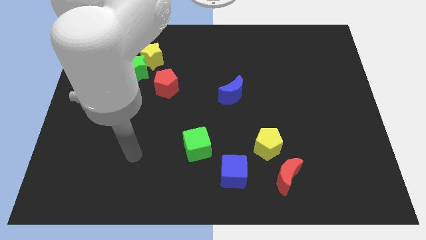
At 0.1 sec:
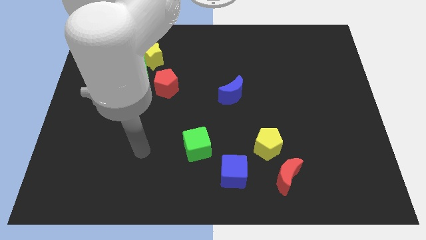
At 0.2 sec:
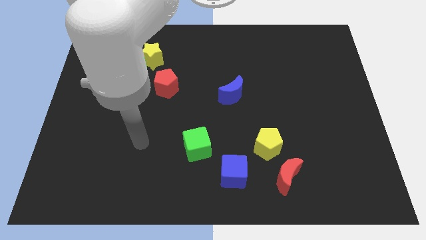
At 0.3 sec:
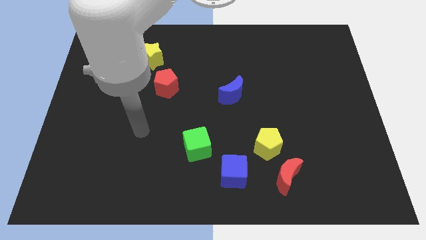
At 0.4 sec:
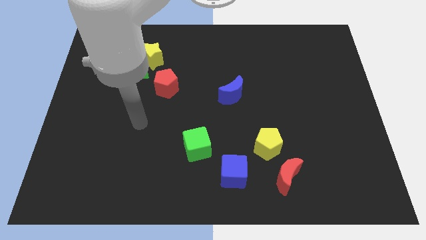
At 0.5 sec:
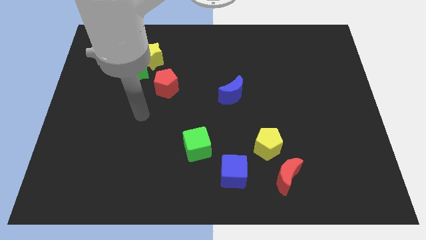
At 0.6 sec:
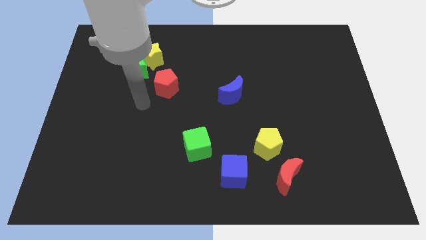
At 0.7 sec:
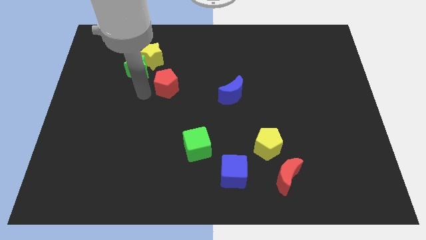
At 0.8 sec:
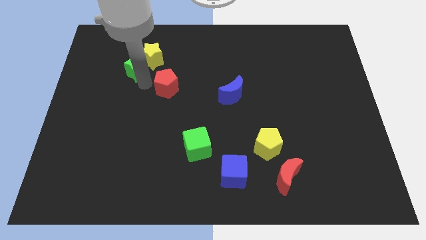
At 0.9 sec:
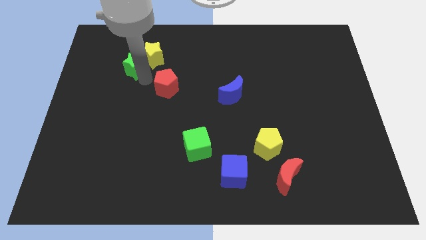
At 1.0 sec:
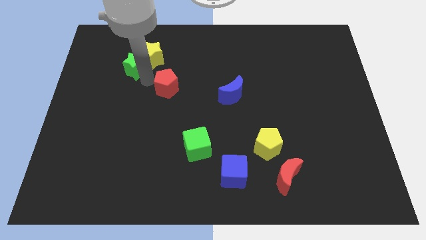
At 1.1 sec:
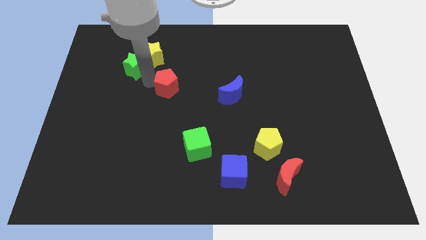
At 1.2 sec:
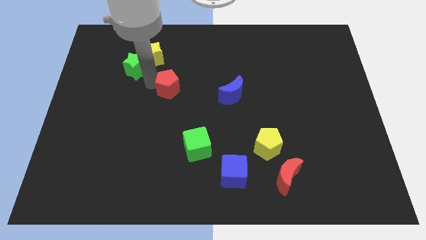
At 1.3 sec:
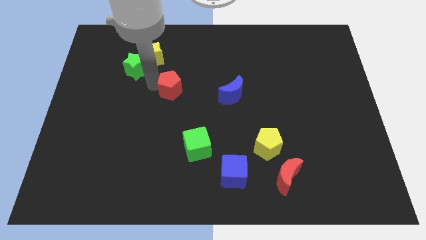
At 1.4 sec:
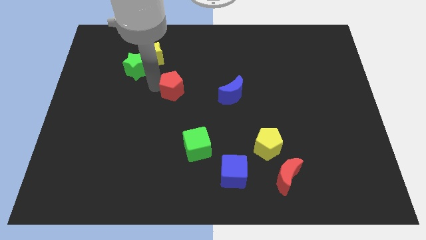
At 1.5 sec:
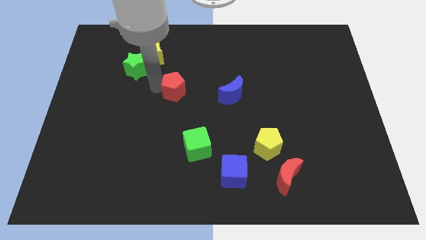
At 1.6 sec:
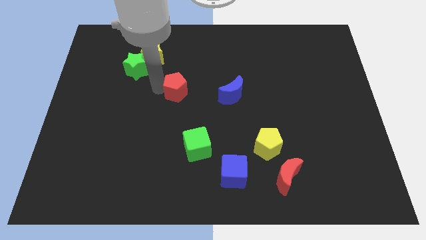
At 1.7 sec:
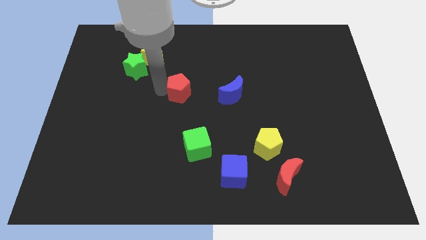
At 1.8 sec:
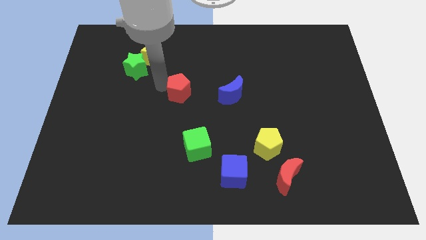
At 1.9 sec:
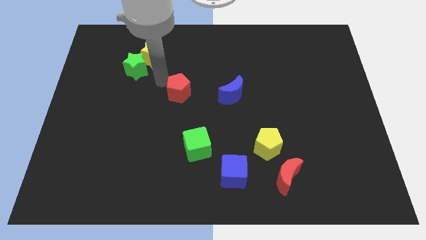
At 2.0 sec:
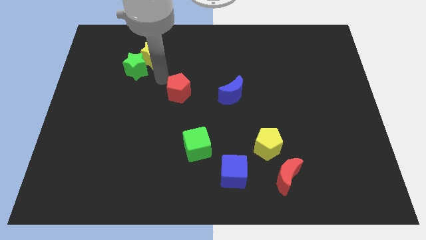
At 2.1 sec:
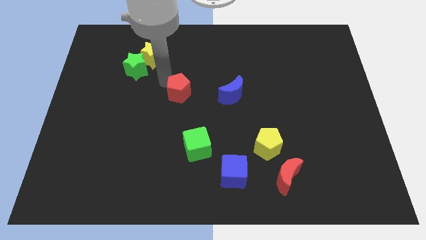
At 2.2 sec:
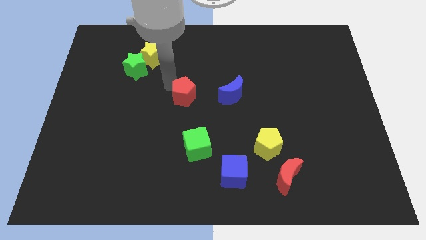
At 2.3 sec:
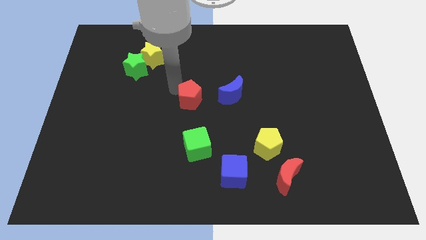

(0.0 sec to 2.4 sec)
slightly push the red pentagon down and then right

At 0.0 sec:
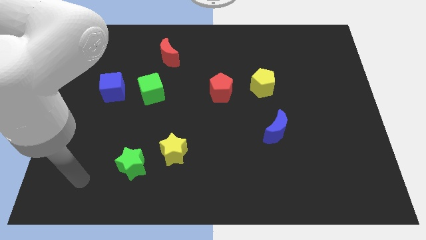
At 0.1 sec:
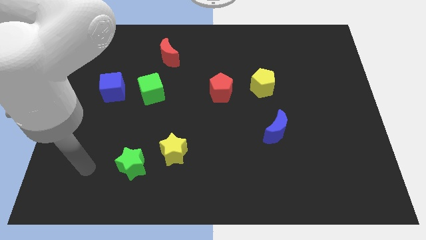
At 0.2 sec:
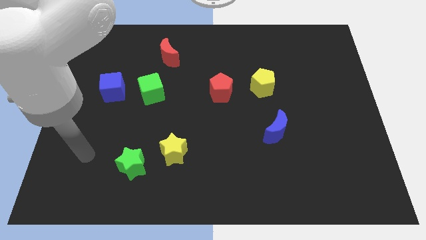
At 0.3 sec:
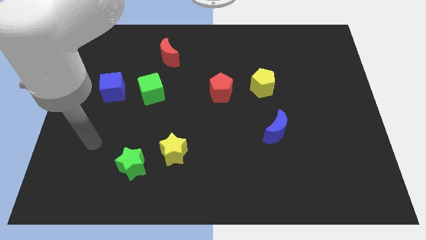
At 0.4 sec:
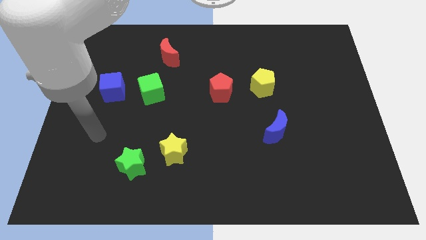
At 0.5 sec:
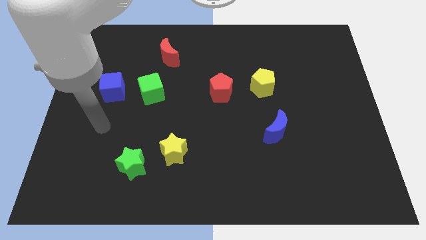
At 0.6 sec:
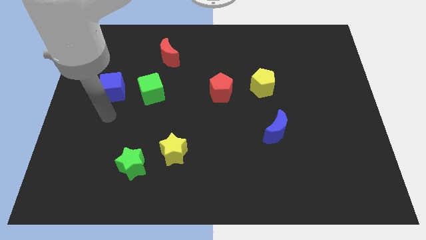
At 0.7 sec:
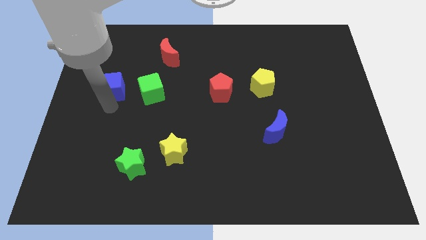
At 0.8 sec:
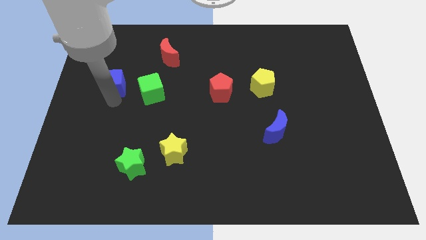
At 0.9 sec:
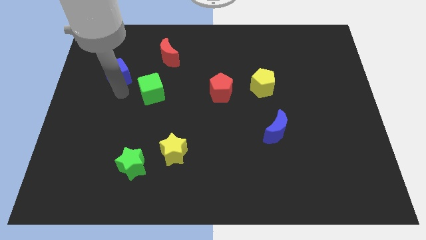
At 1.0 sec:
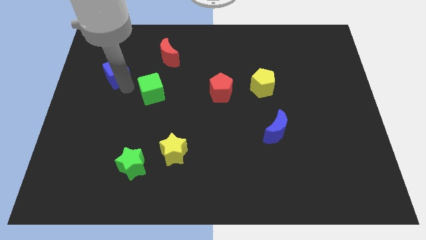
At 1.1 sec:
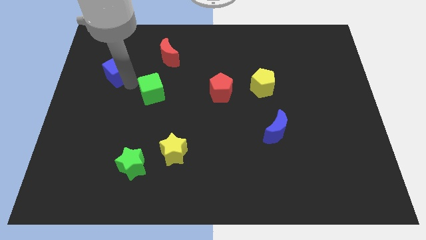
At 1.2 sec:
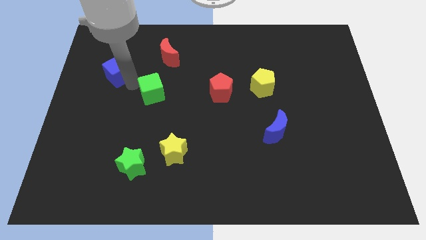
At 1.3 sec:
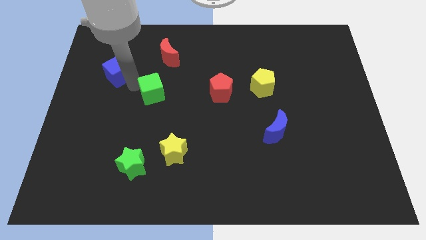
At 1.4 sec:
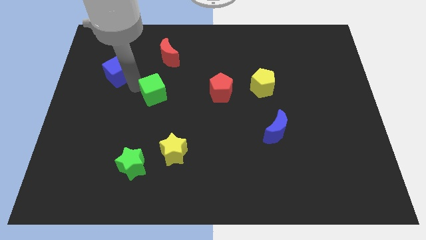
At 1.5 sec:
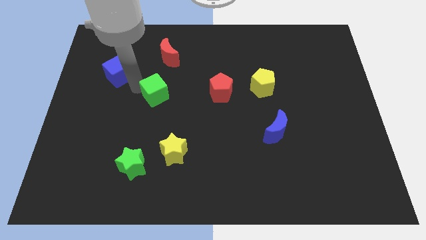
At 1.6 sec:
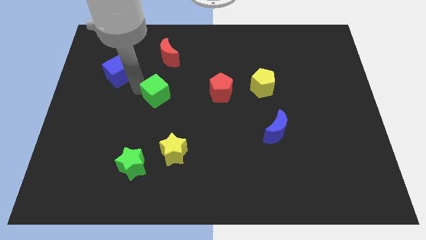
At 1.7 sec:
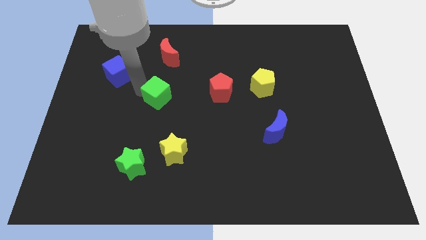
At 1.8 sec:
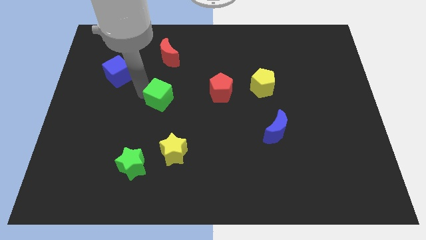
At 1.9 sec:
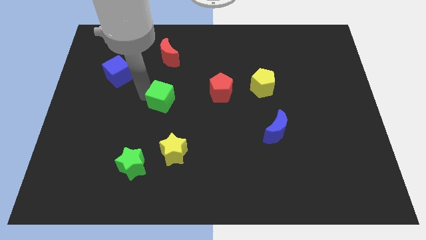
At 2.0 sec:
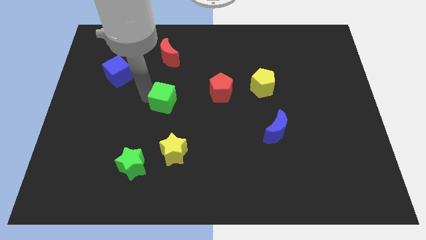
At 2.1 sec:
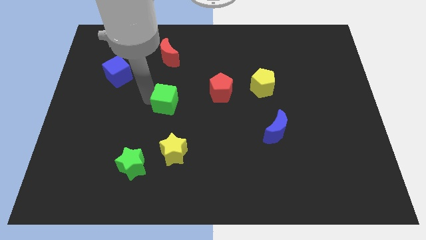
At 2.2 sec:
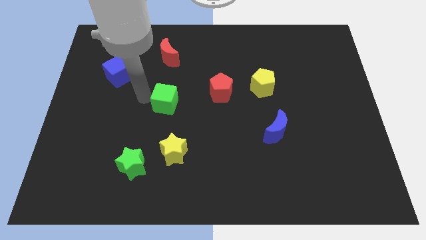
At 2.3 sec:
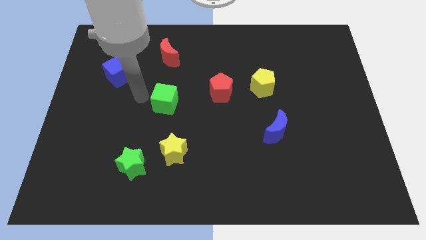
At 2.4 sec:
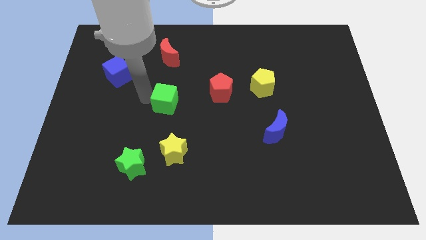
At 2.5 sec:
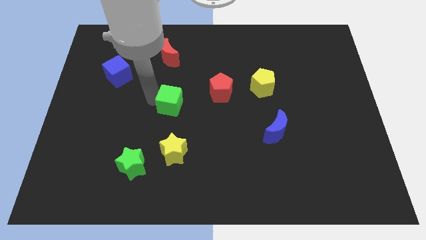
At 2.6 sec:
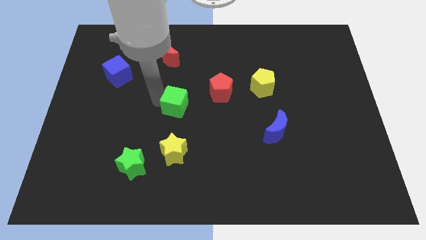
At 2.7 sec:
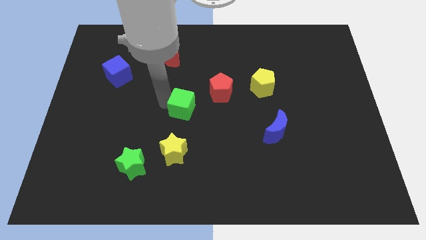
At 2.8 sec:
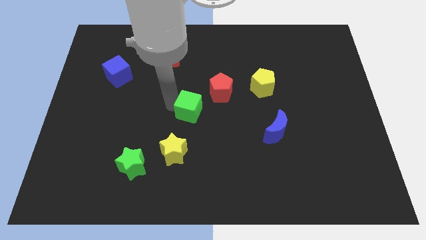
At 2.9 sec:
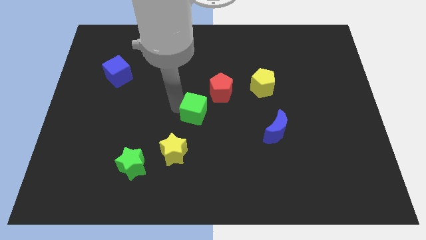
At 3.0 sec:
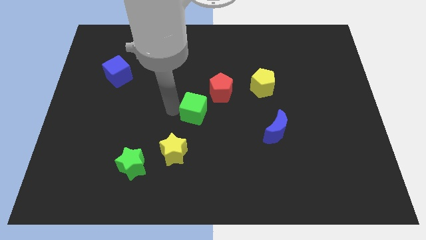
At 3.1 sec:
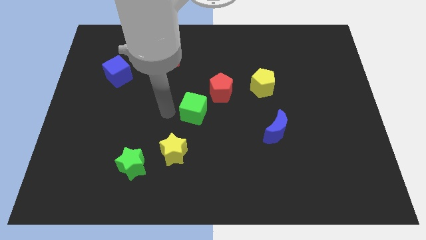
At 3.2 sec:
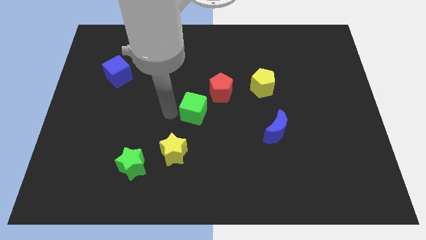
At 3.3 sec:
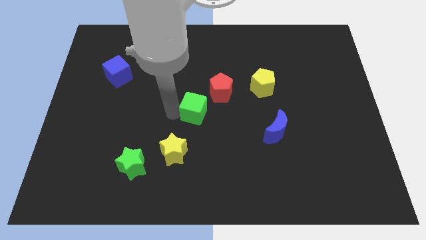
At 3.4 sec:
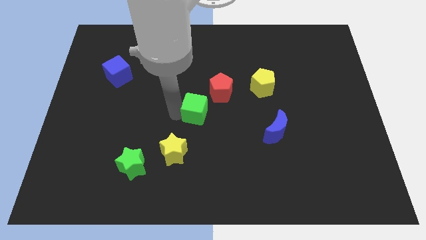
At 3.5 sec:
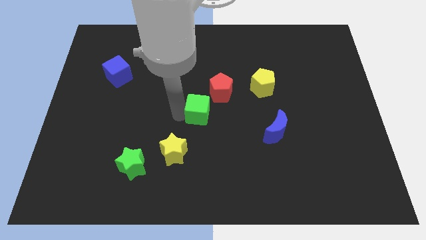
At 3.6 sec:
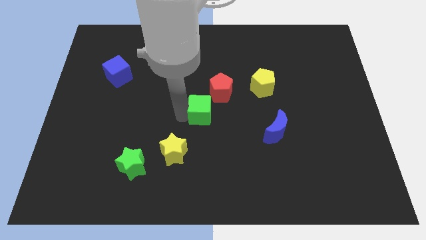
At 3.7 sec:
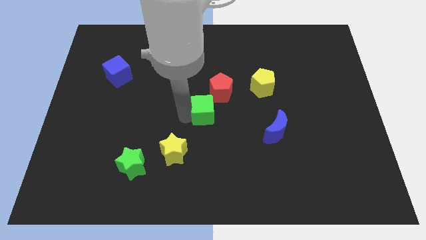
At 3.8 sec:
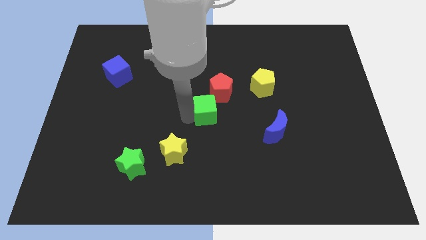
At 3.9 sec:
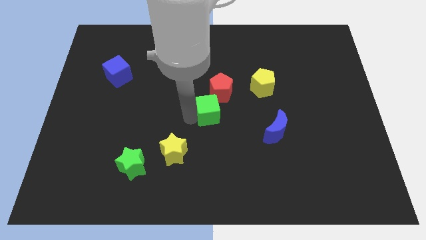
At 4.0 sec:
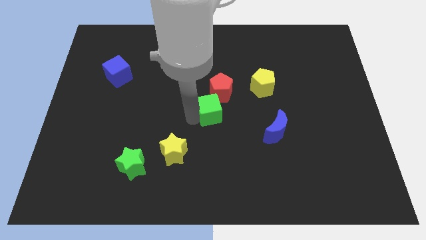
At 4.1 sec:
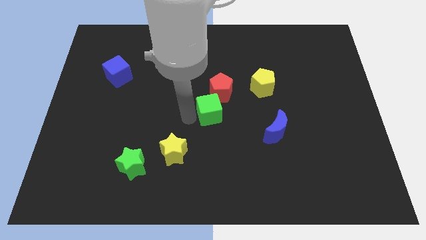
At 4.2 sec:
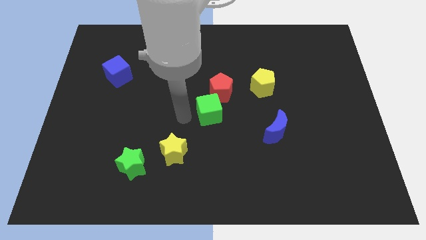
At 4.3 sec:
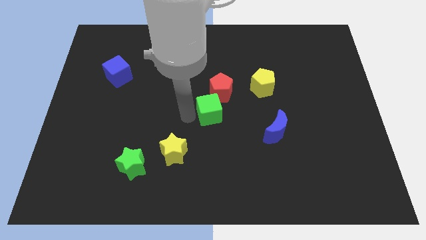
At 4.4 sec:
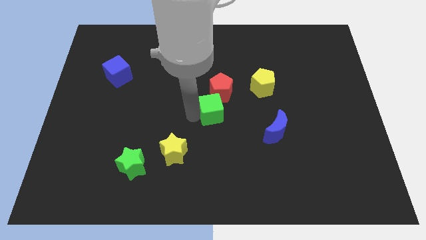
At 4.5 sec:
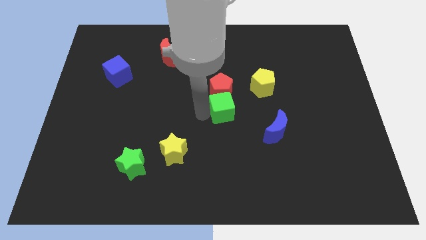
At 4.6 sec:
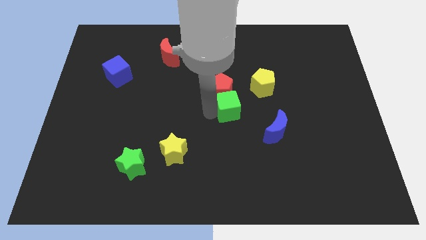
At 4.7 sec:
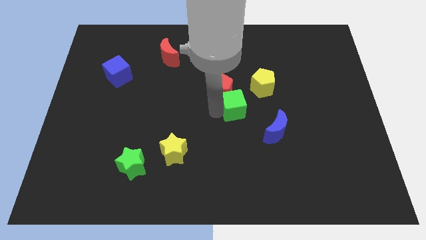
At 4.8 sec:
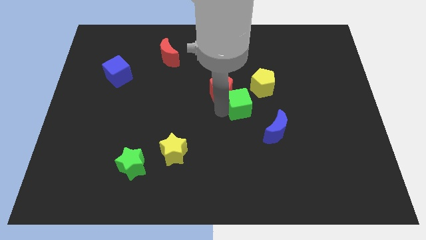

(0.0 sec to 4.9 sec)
push the green cube to the right

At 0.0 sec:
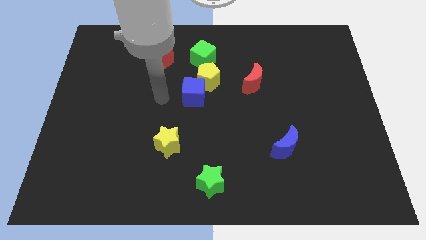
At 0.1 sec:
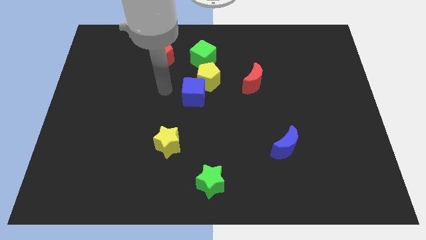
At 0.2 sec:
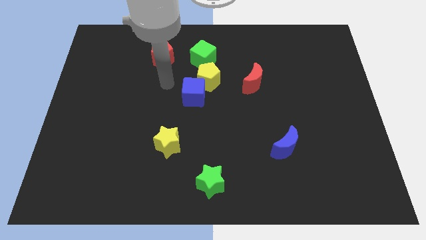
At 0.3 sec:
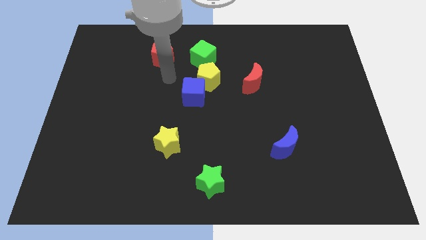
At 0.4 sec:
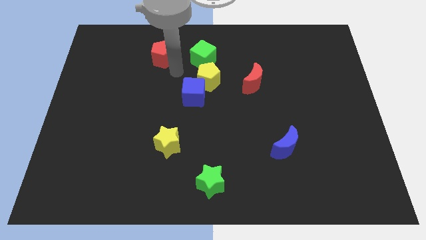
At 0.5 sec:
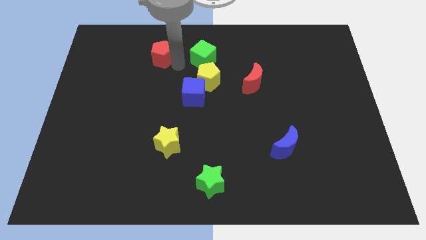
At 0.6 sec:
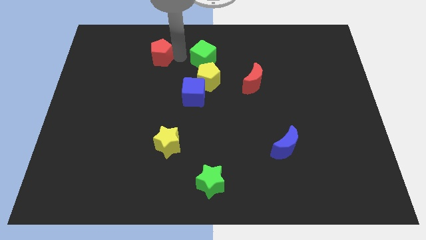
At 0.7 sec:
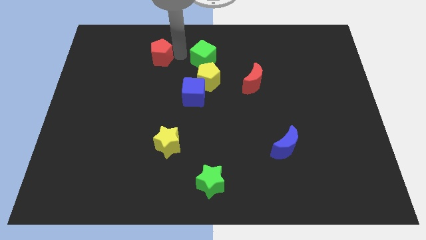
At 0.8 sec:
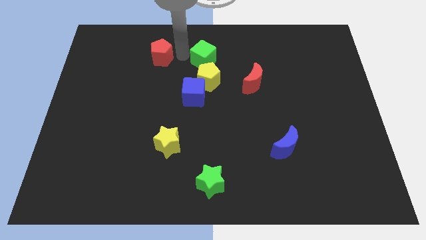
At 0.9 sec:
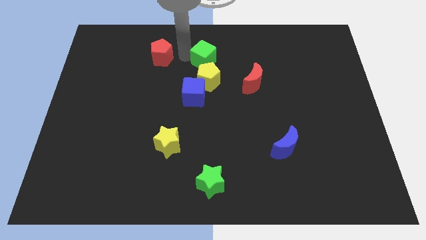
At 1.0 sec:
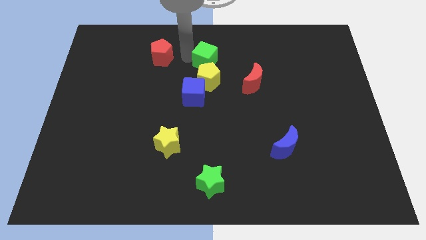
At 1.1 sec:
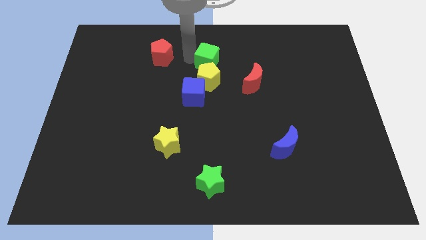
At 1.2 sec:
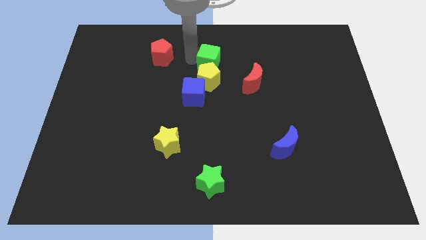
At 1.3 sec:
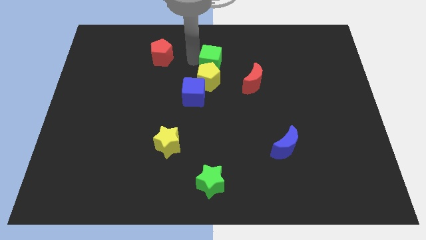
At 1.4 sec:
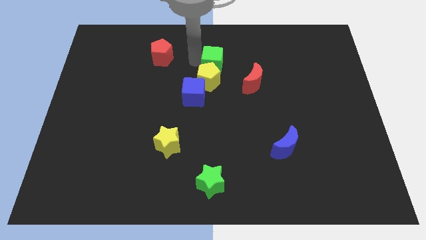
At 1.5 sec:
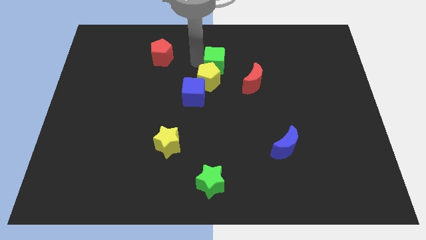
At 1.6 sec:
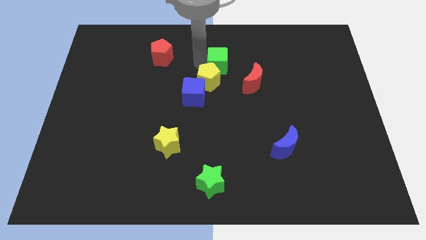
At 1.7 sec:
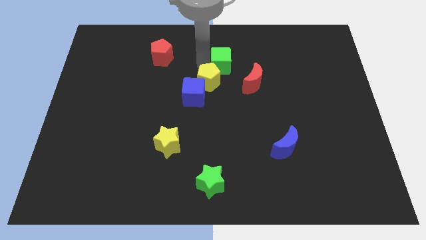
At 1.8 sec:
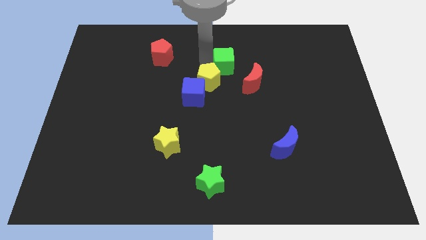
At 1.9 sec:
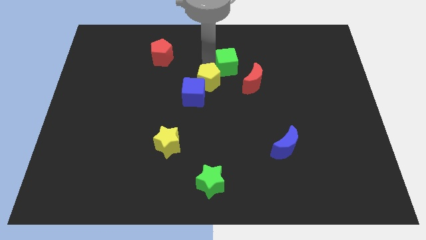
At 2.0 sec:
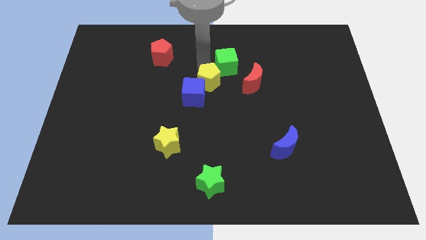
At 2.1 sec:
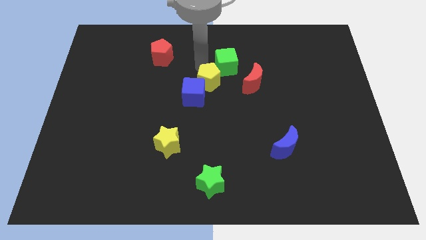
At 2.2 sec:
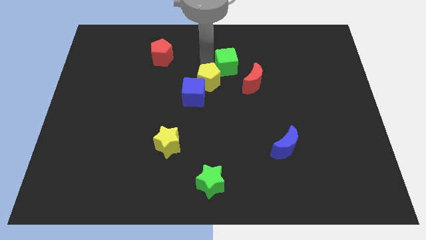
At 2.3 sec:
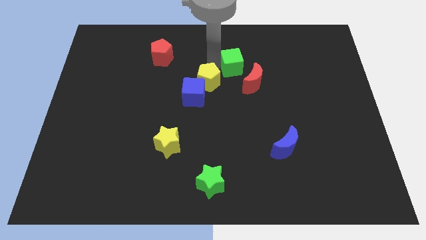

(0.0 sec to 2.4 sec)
slightly move the green cube downwards and then to the right
